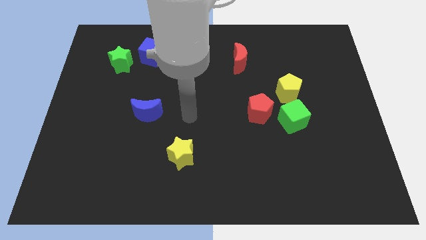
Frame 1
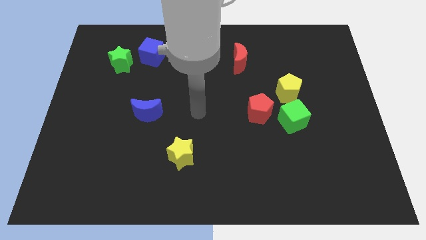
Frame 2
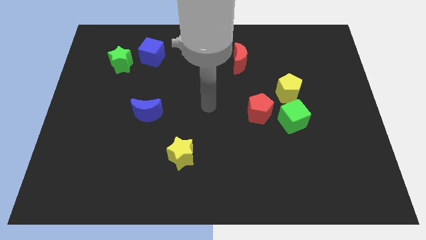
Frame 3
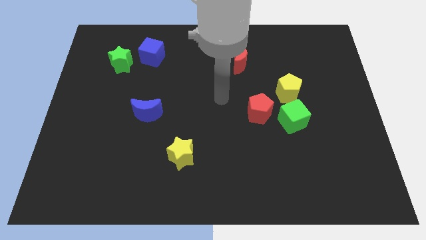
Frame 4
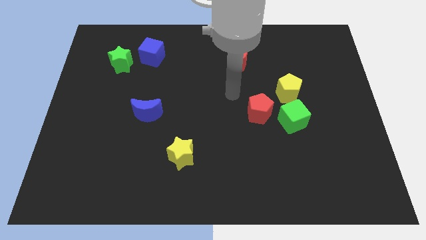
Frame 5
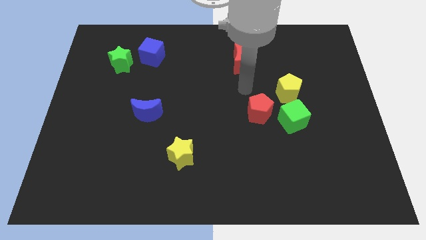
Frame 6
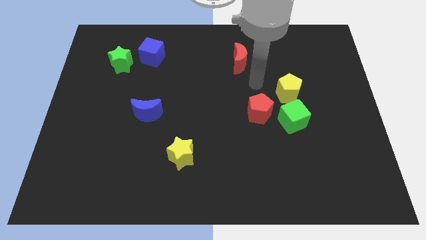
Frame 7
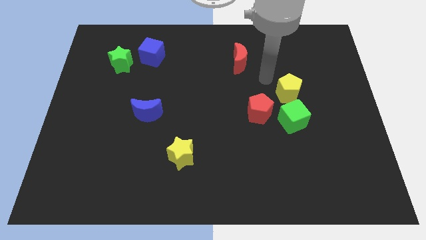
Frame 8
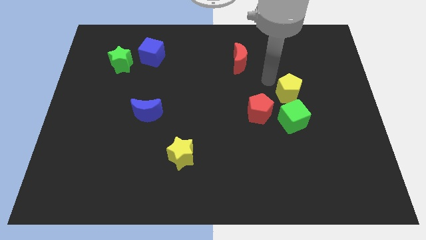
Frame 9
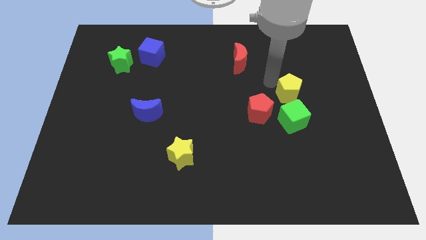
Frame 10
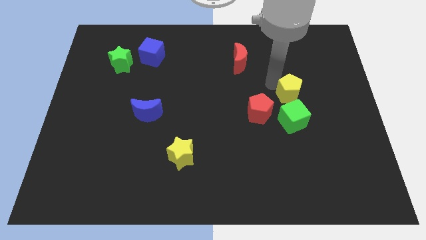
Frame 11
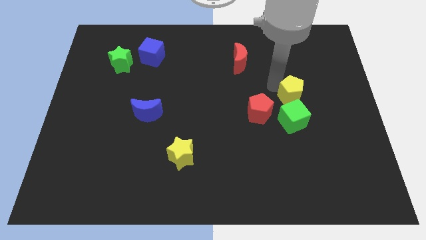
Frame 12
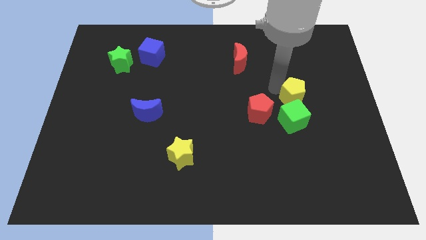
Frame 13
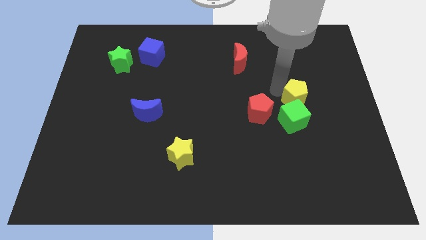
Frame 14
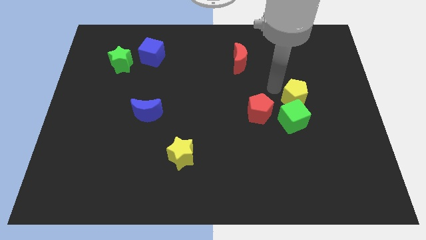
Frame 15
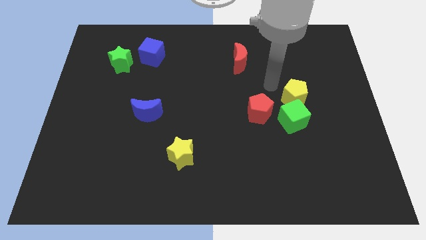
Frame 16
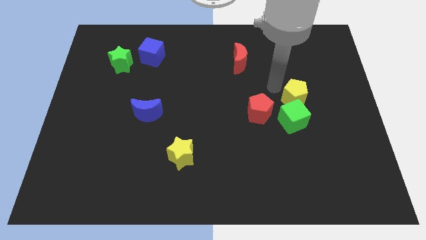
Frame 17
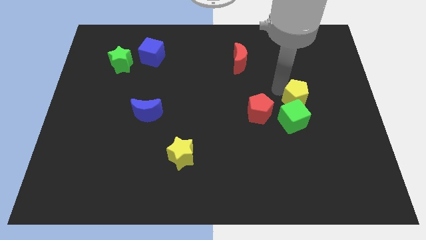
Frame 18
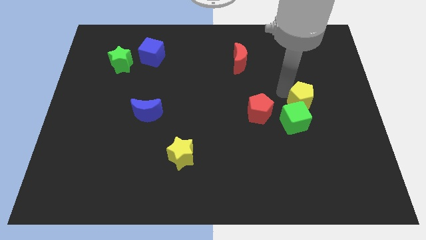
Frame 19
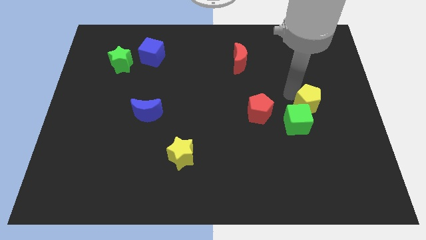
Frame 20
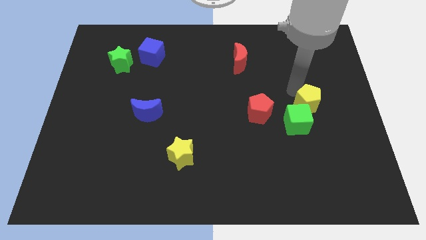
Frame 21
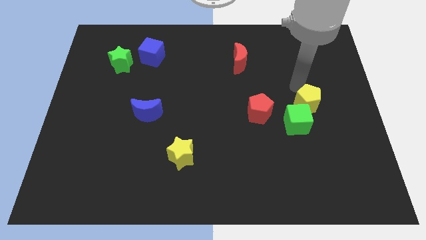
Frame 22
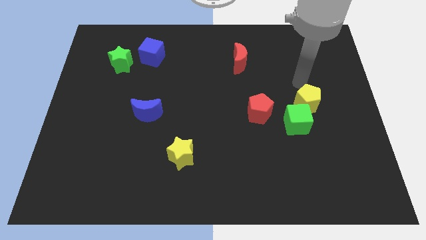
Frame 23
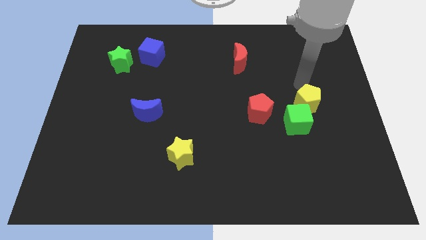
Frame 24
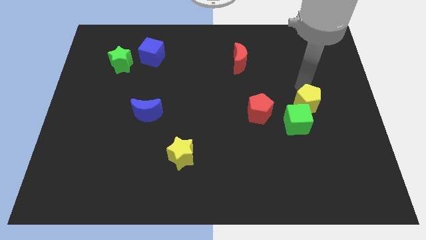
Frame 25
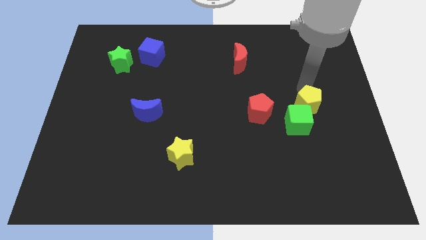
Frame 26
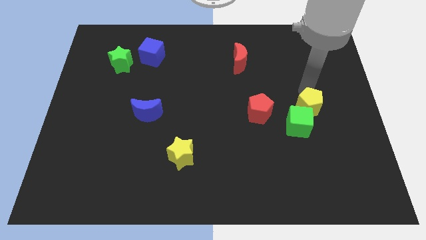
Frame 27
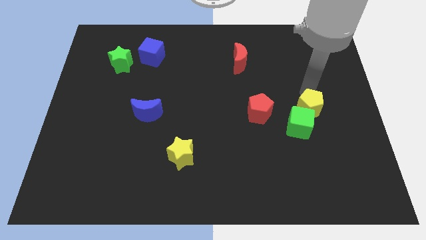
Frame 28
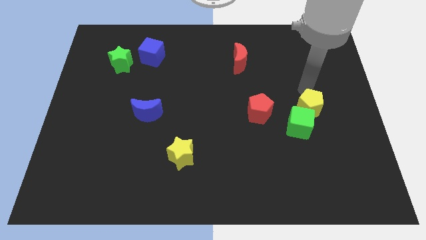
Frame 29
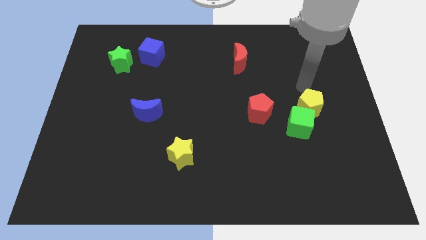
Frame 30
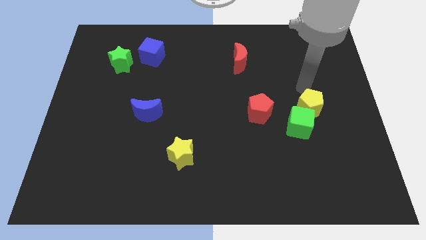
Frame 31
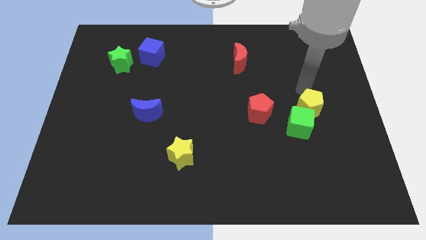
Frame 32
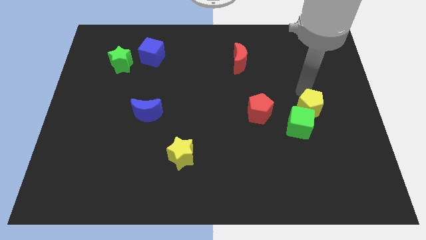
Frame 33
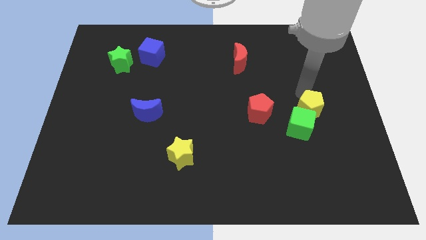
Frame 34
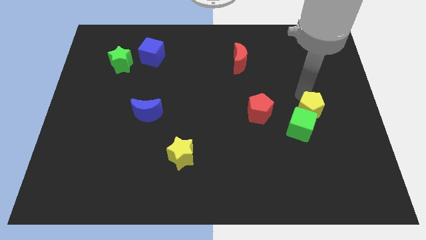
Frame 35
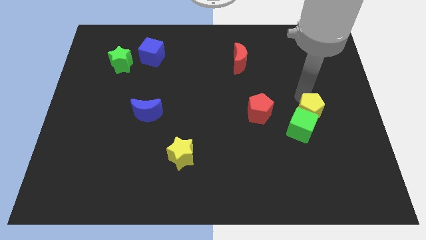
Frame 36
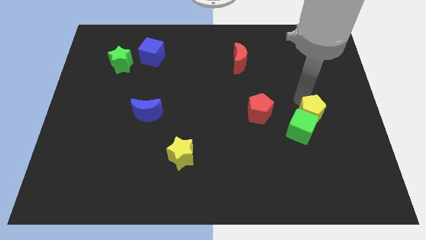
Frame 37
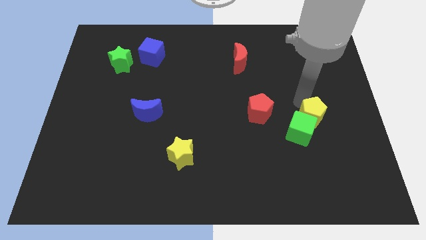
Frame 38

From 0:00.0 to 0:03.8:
move the yellow pentagon downwards a bit

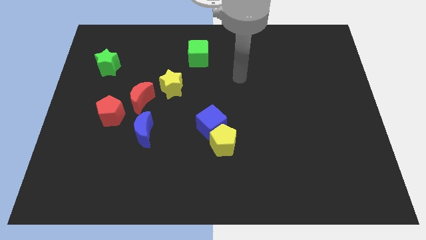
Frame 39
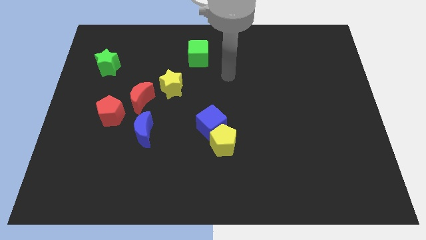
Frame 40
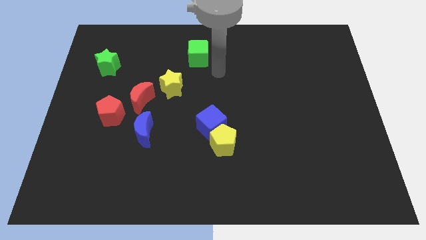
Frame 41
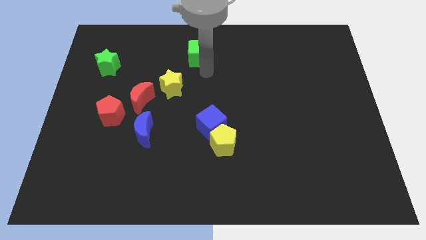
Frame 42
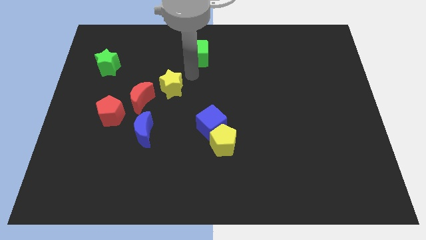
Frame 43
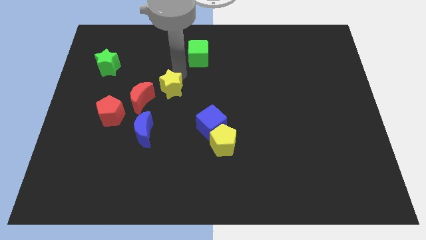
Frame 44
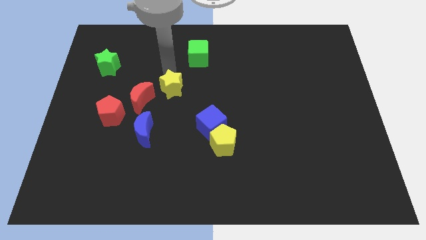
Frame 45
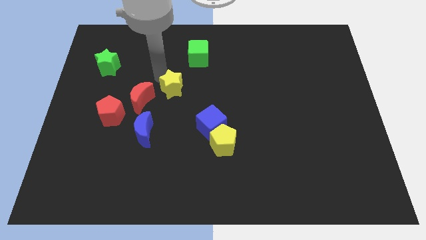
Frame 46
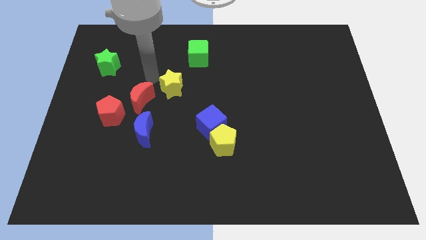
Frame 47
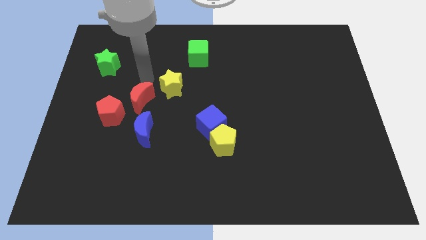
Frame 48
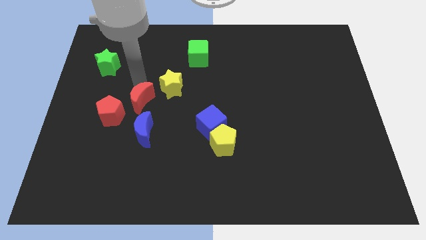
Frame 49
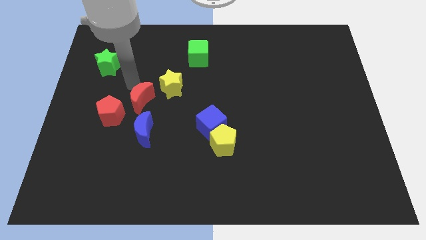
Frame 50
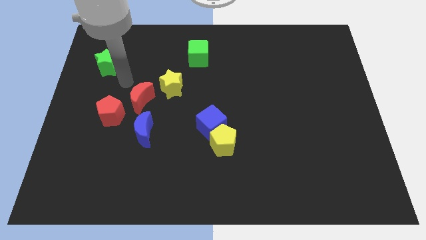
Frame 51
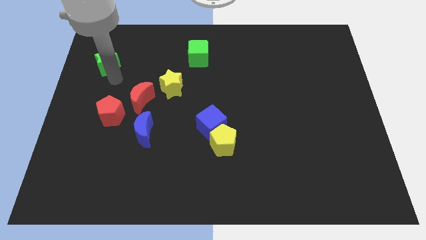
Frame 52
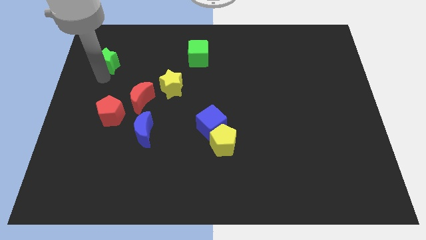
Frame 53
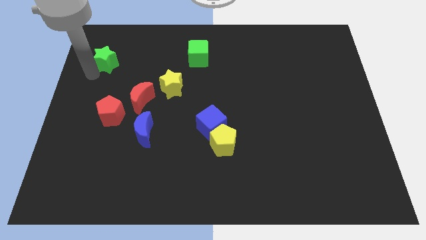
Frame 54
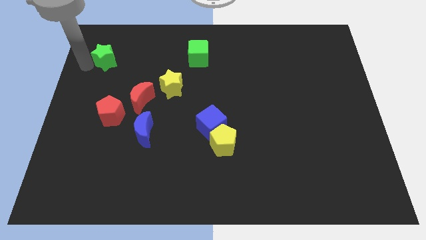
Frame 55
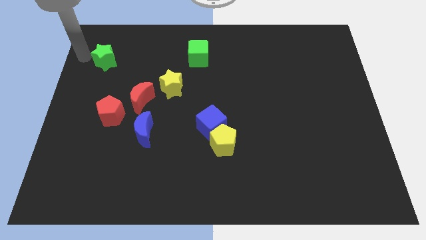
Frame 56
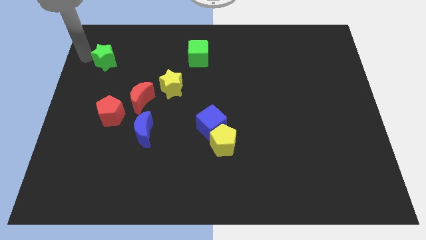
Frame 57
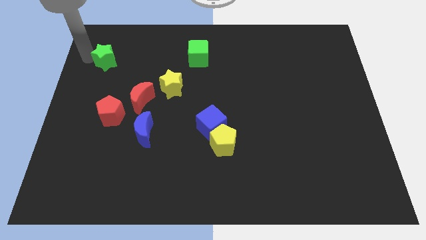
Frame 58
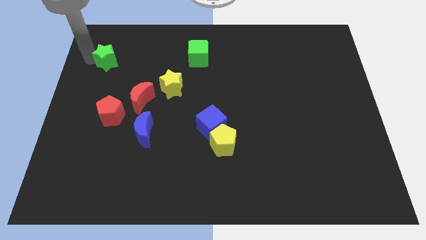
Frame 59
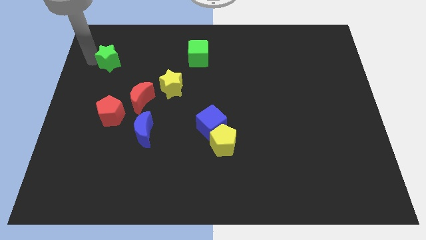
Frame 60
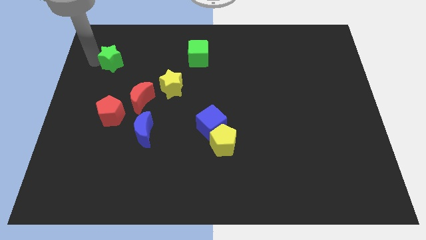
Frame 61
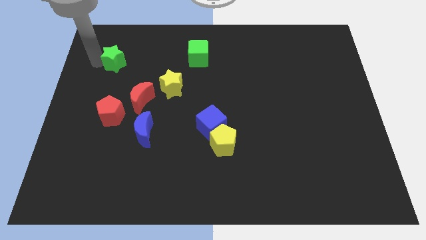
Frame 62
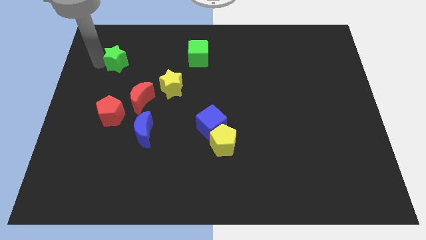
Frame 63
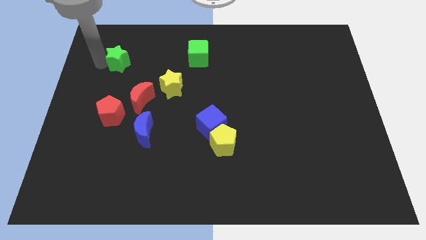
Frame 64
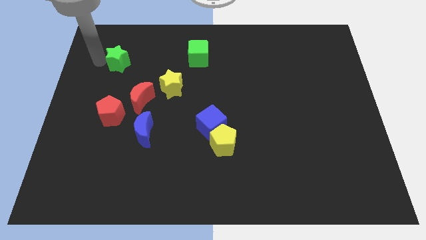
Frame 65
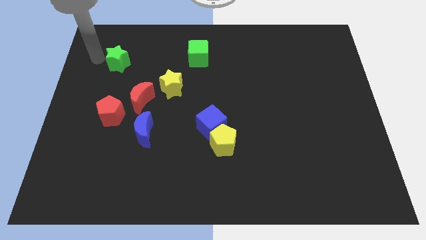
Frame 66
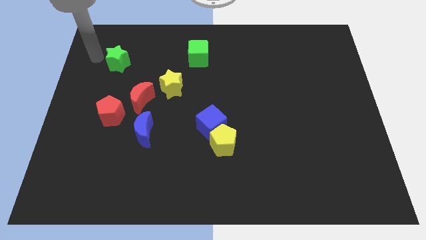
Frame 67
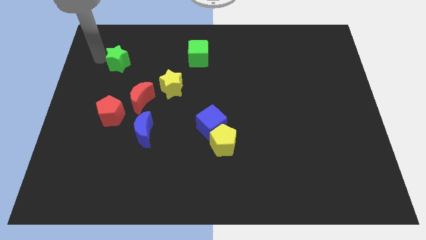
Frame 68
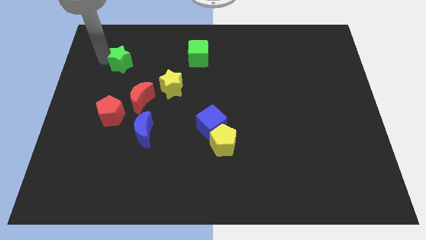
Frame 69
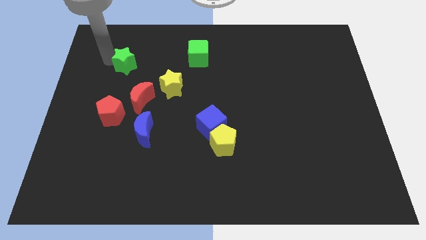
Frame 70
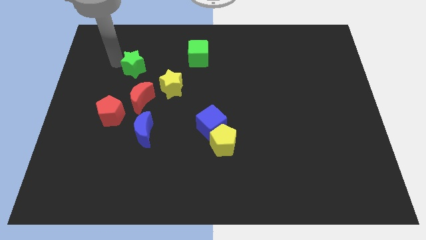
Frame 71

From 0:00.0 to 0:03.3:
slightly slide the green star right

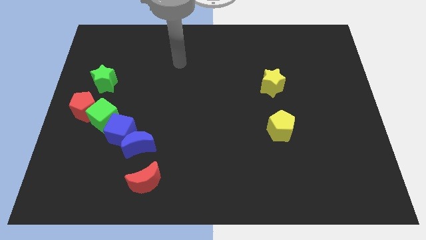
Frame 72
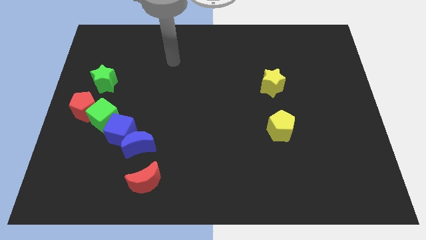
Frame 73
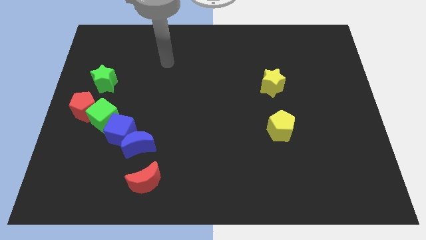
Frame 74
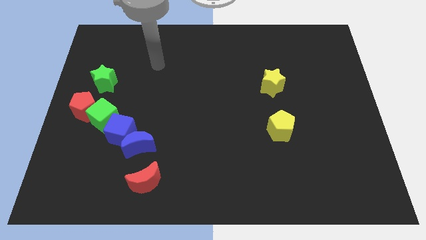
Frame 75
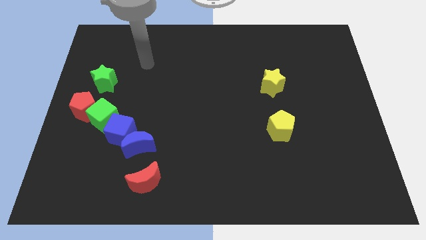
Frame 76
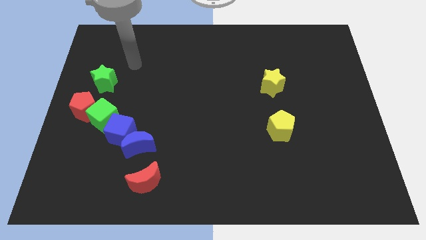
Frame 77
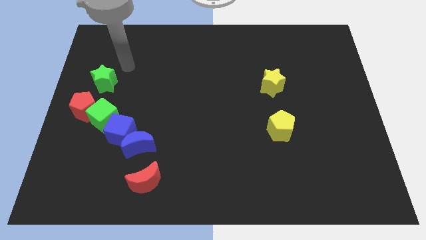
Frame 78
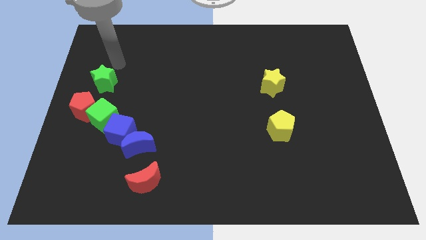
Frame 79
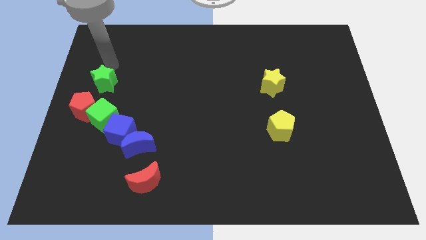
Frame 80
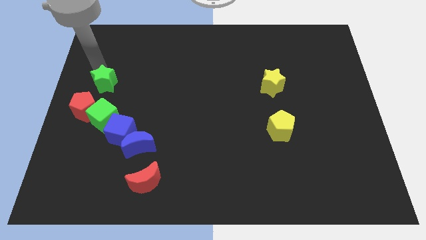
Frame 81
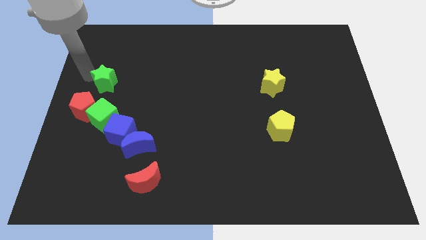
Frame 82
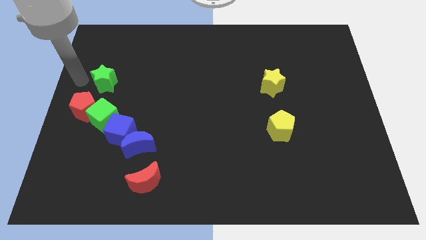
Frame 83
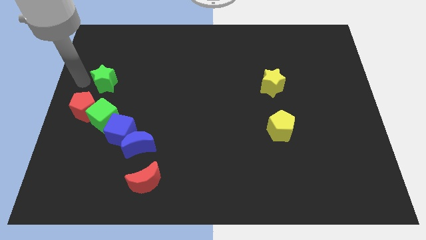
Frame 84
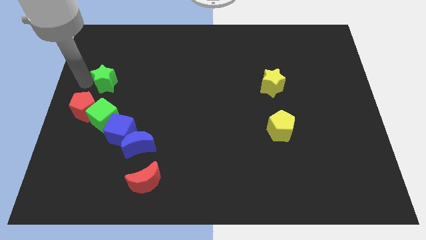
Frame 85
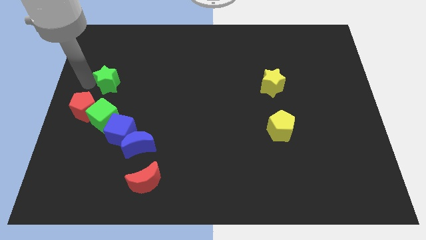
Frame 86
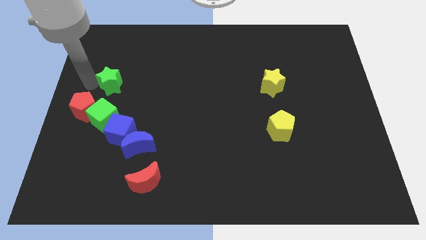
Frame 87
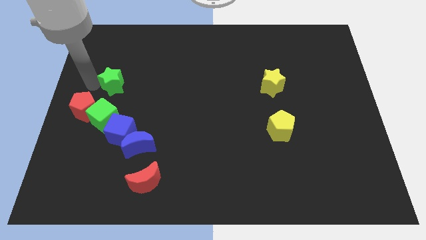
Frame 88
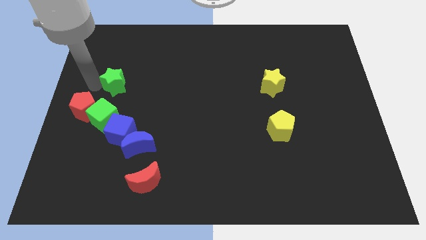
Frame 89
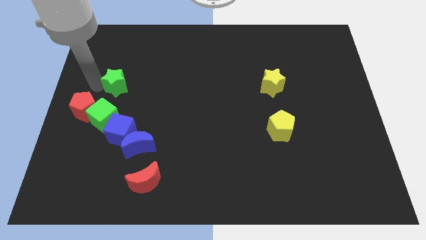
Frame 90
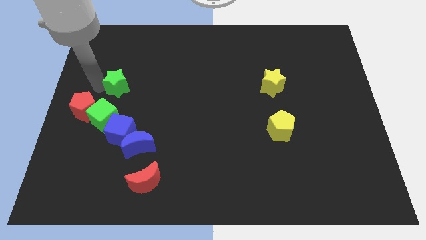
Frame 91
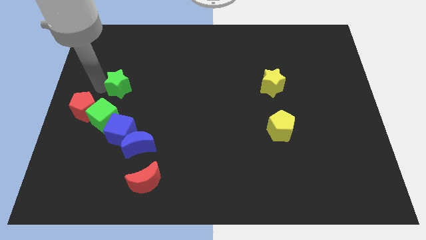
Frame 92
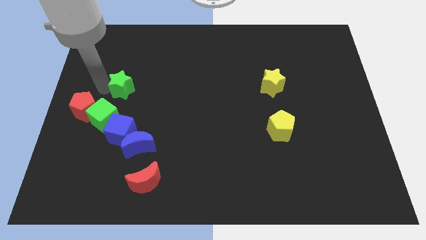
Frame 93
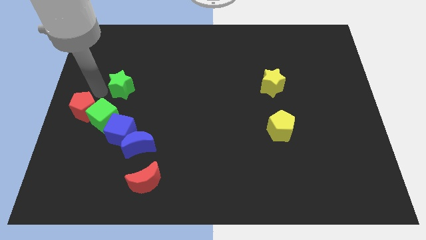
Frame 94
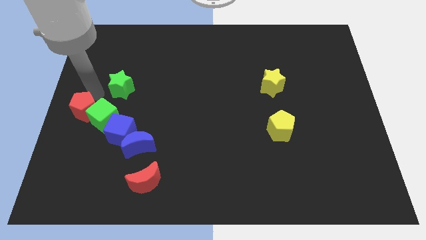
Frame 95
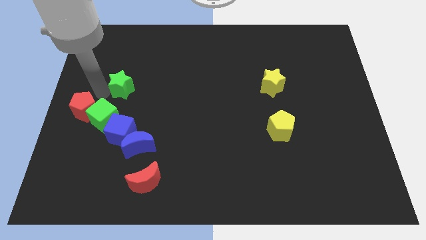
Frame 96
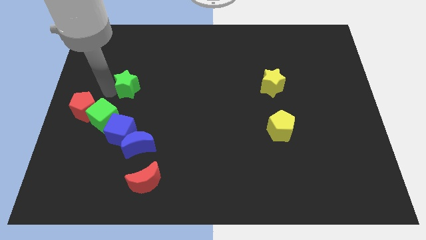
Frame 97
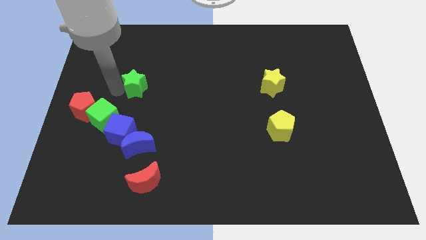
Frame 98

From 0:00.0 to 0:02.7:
slide the green star to the right slightly
